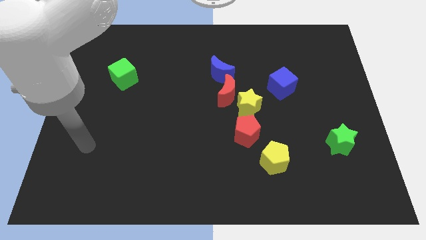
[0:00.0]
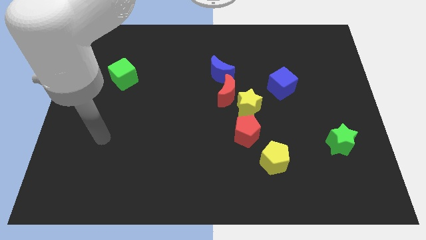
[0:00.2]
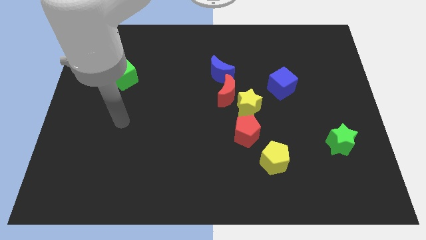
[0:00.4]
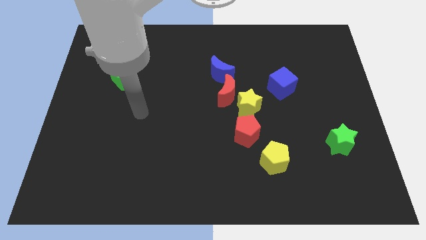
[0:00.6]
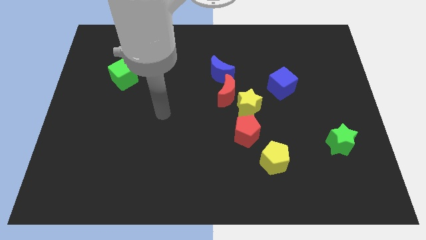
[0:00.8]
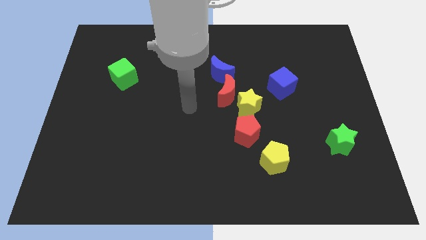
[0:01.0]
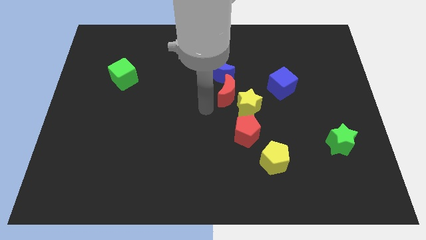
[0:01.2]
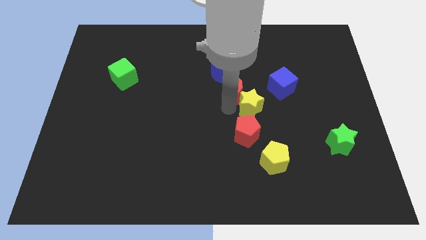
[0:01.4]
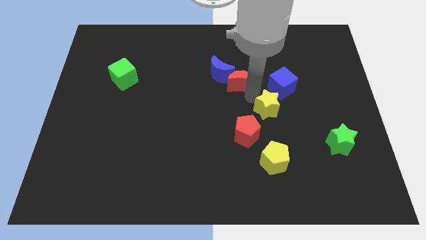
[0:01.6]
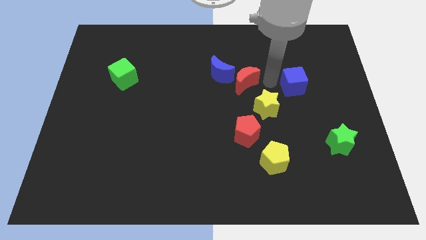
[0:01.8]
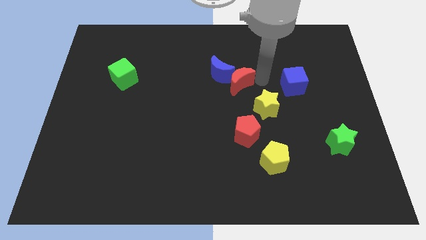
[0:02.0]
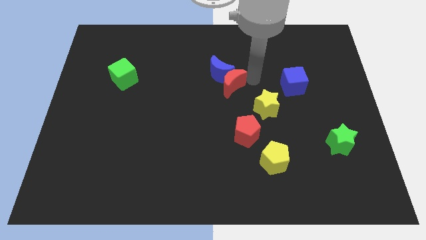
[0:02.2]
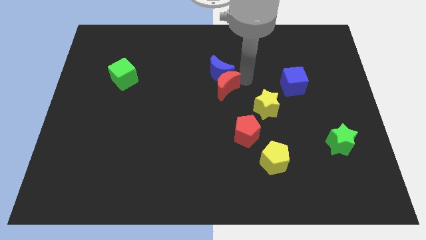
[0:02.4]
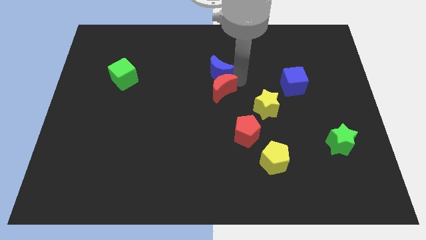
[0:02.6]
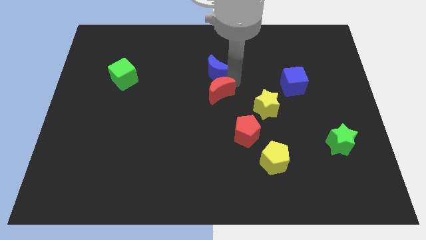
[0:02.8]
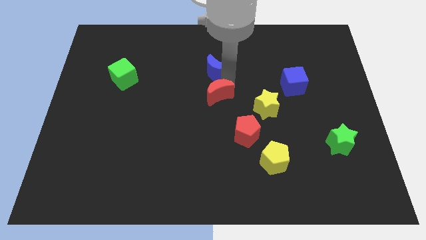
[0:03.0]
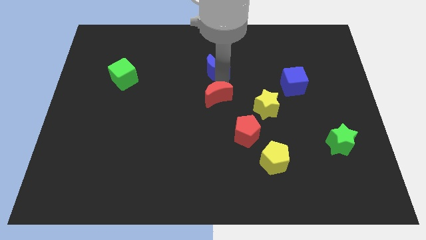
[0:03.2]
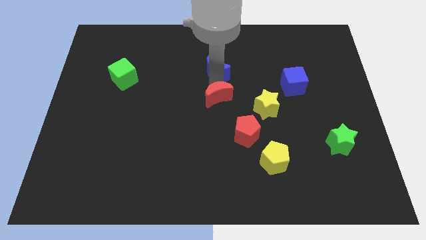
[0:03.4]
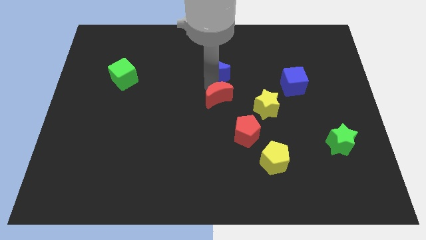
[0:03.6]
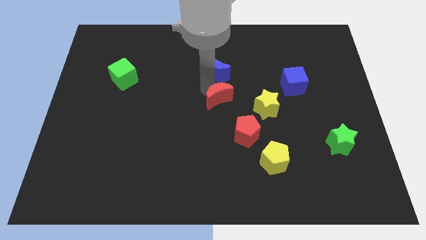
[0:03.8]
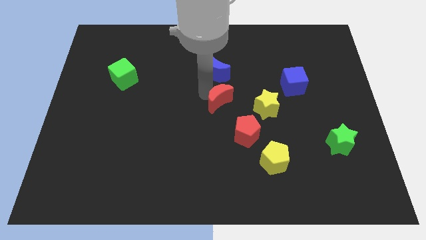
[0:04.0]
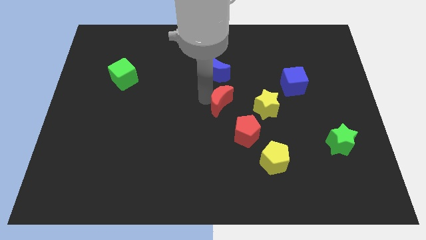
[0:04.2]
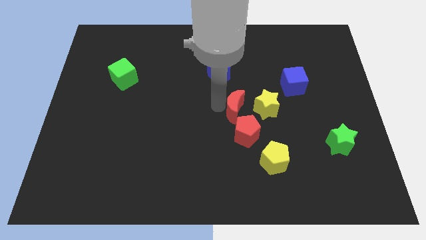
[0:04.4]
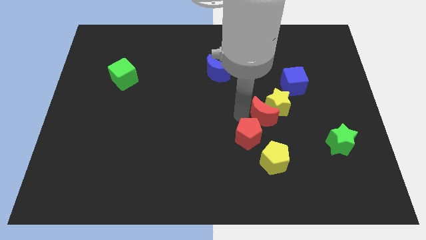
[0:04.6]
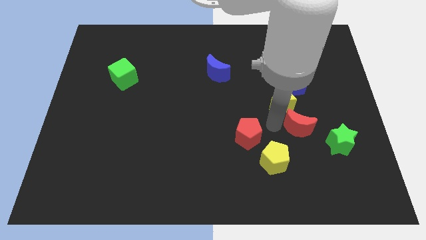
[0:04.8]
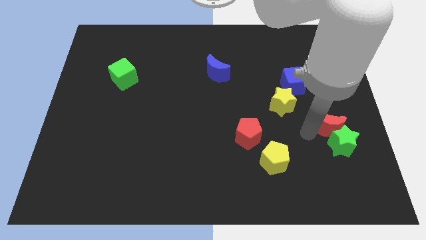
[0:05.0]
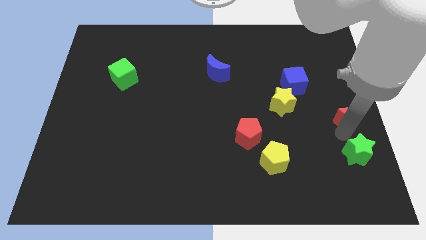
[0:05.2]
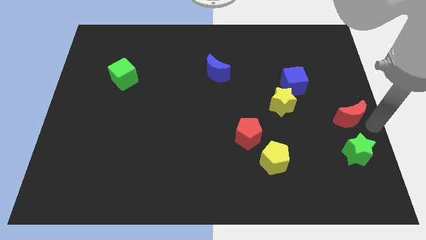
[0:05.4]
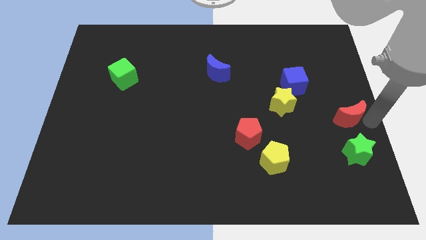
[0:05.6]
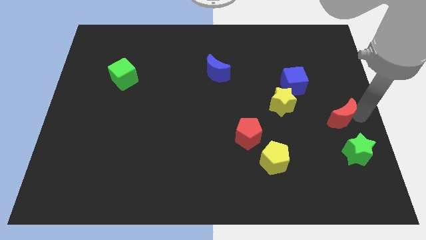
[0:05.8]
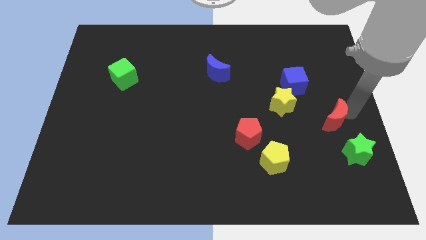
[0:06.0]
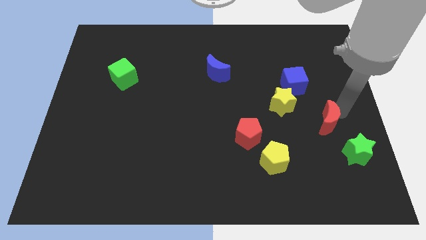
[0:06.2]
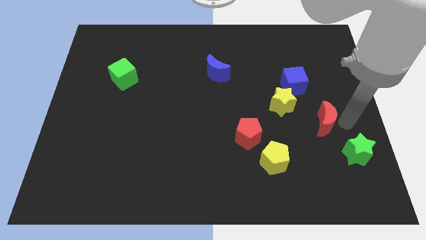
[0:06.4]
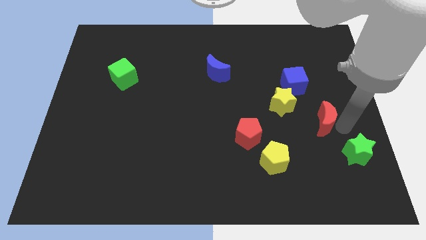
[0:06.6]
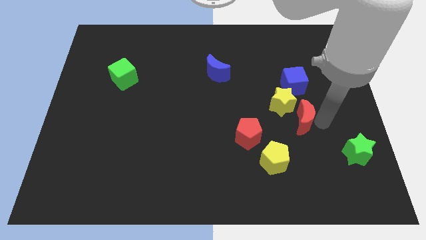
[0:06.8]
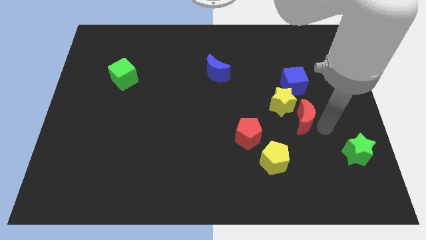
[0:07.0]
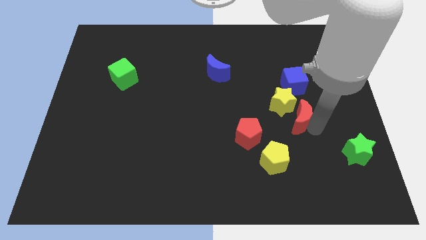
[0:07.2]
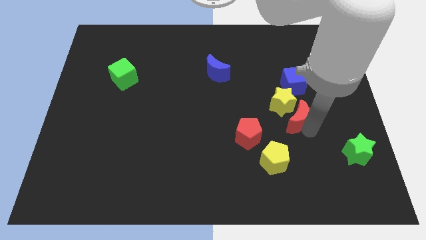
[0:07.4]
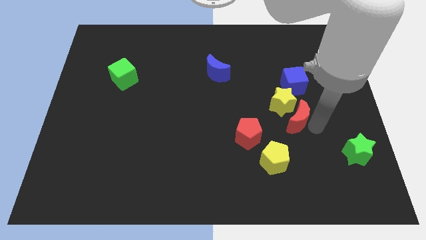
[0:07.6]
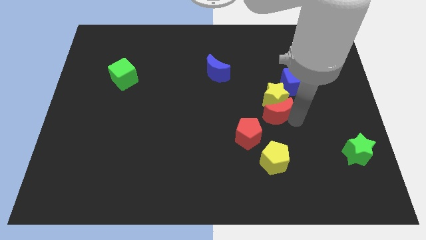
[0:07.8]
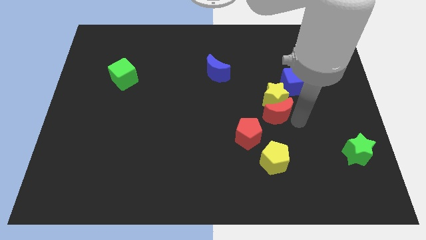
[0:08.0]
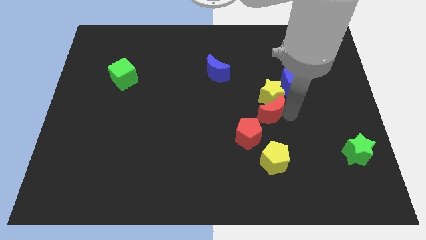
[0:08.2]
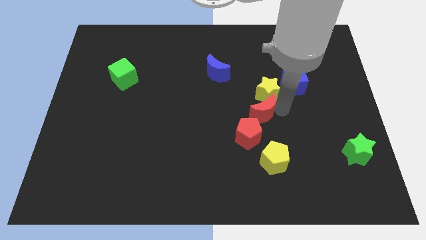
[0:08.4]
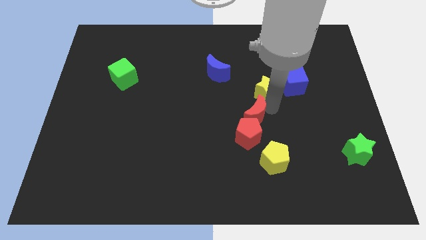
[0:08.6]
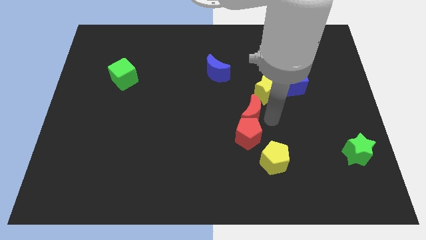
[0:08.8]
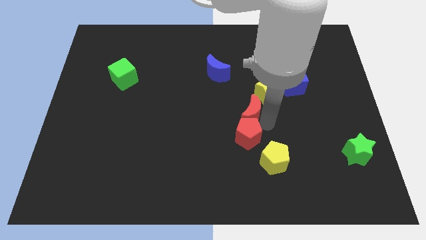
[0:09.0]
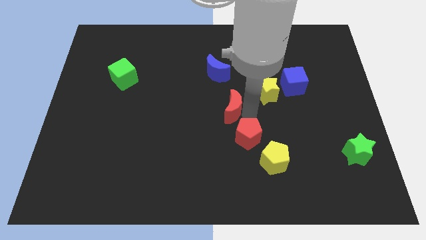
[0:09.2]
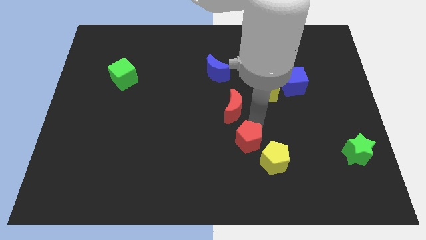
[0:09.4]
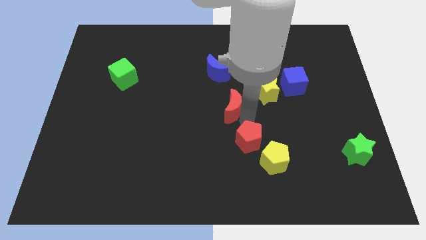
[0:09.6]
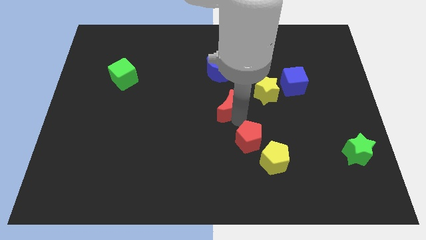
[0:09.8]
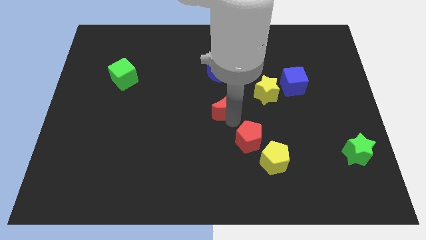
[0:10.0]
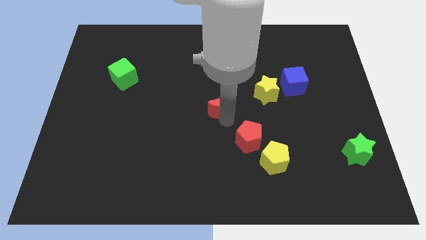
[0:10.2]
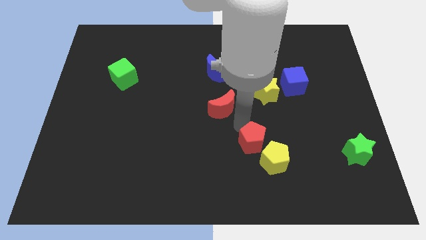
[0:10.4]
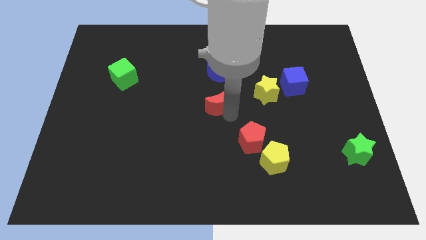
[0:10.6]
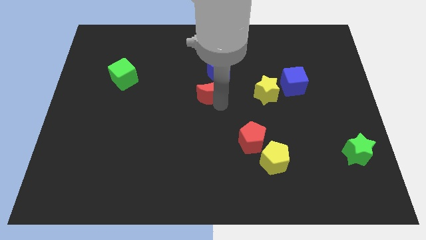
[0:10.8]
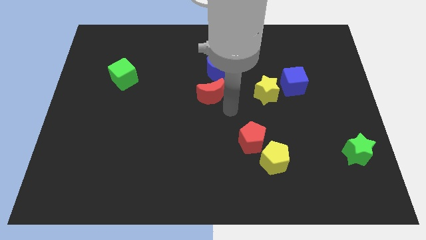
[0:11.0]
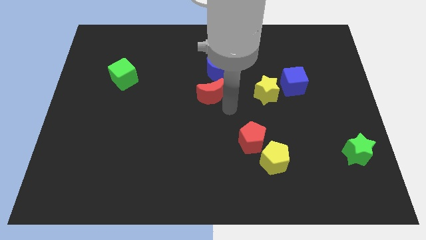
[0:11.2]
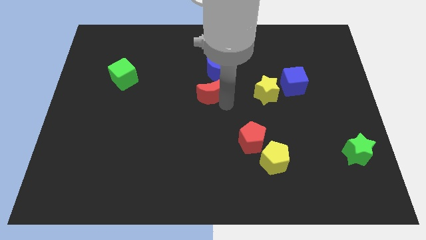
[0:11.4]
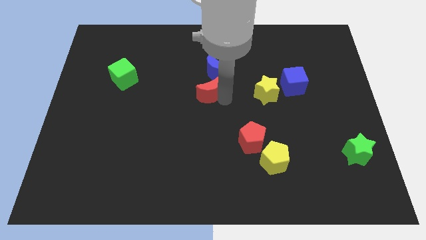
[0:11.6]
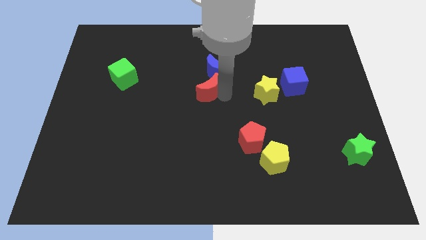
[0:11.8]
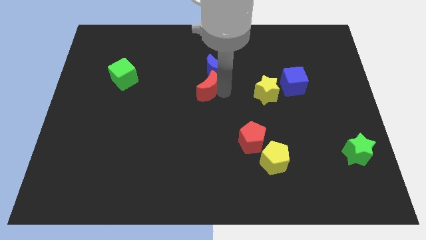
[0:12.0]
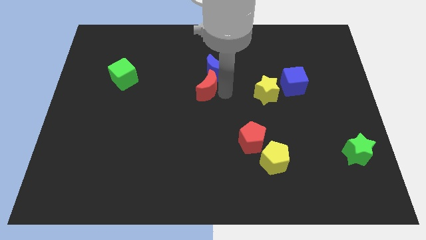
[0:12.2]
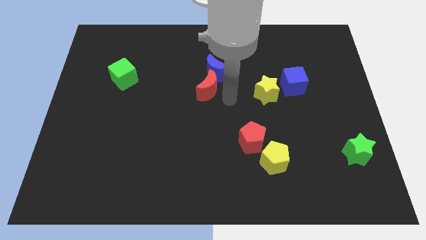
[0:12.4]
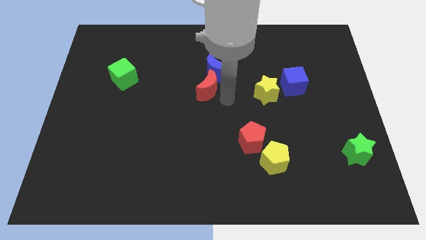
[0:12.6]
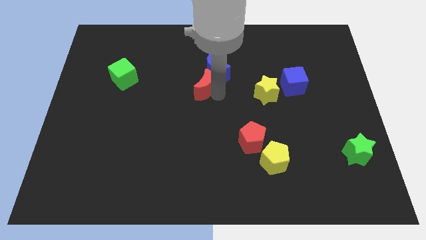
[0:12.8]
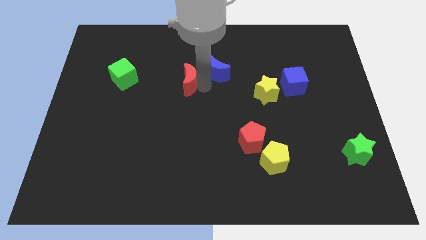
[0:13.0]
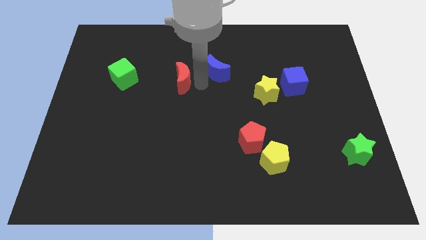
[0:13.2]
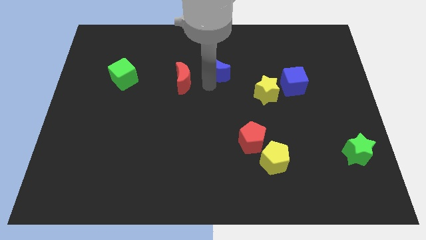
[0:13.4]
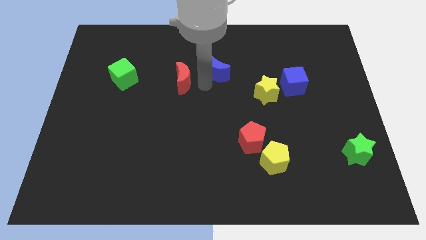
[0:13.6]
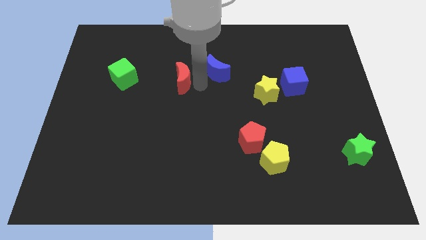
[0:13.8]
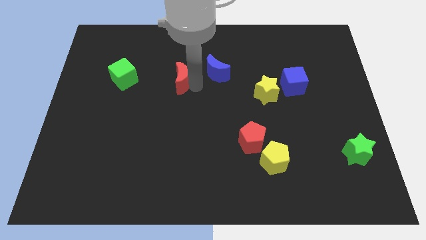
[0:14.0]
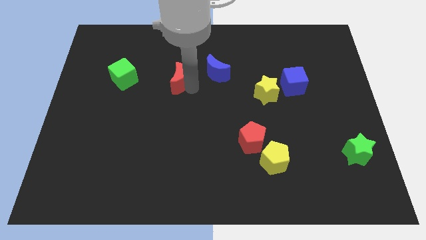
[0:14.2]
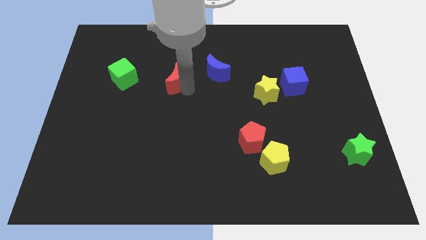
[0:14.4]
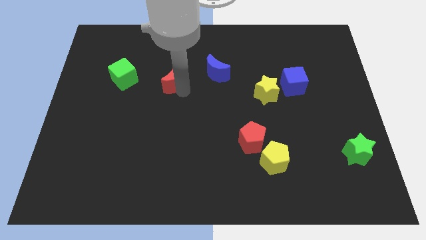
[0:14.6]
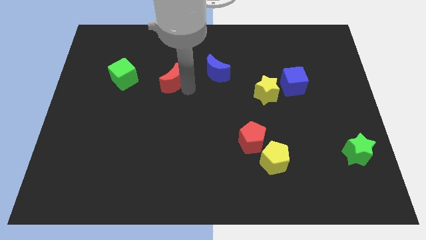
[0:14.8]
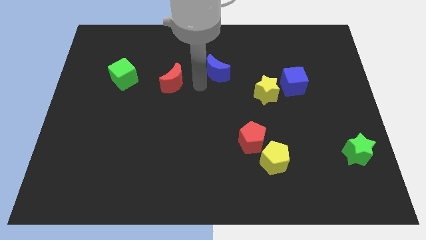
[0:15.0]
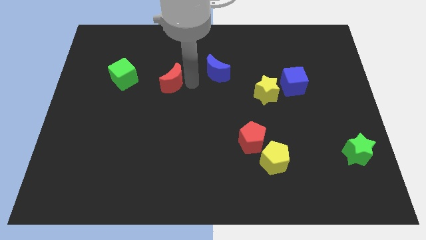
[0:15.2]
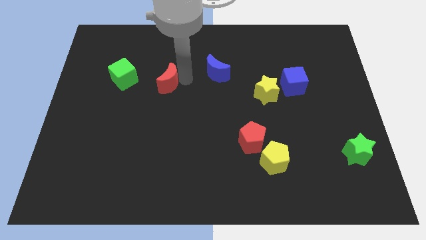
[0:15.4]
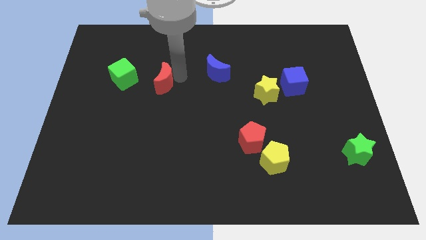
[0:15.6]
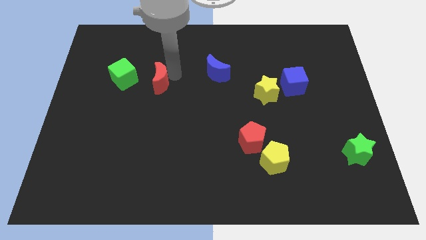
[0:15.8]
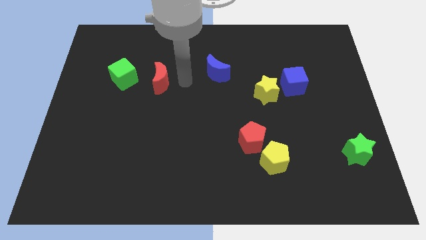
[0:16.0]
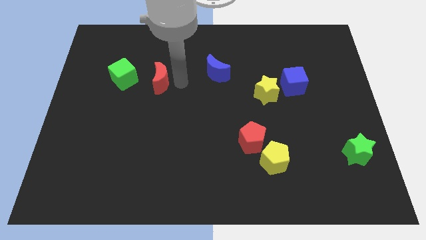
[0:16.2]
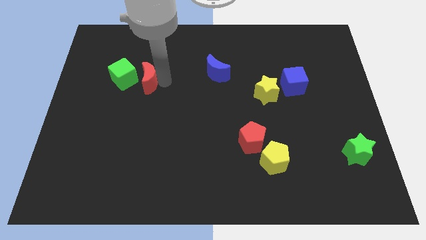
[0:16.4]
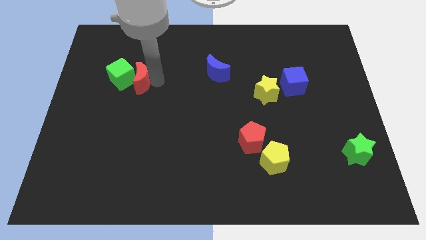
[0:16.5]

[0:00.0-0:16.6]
push the red moon towards the green cube
